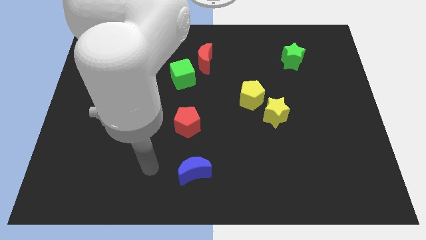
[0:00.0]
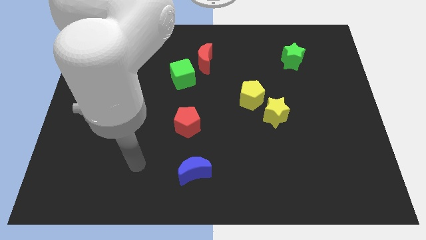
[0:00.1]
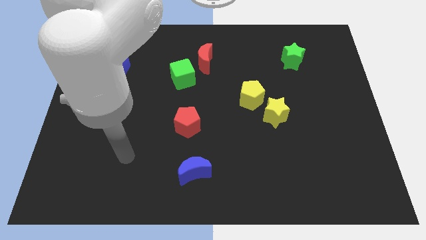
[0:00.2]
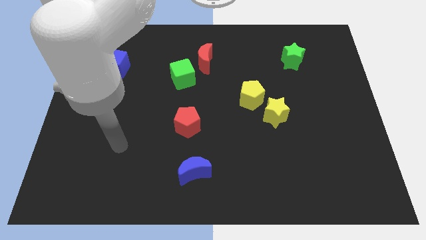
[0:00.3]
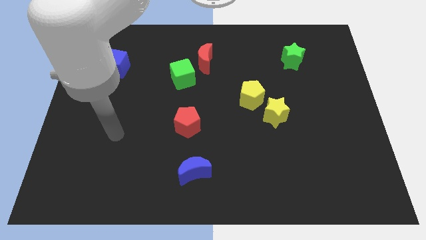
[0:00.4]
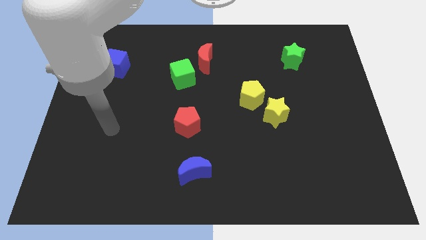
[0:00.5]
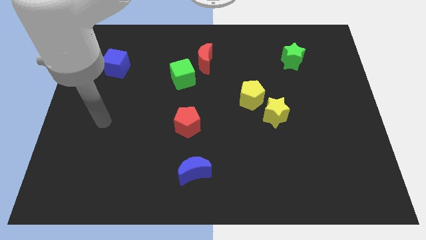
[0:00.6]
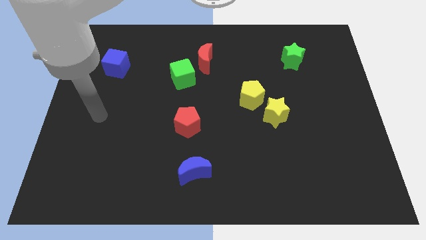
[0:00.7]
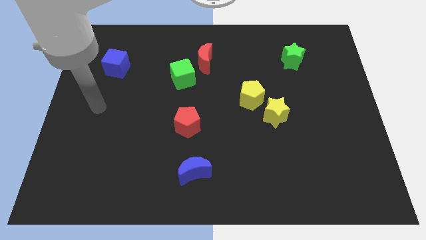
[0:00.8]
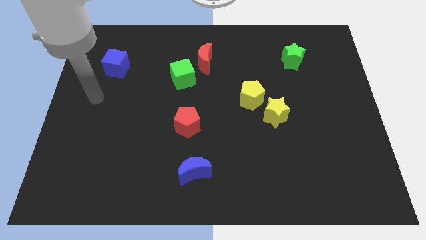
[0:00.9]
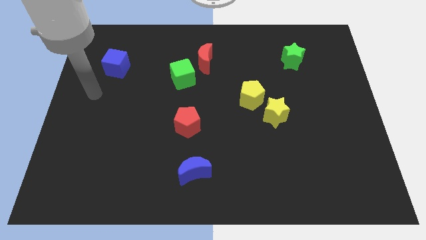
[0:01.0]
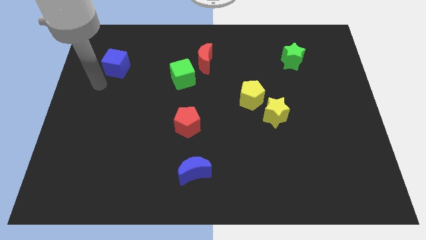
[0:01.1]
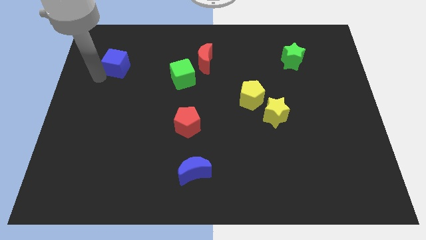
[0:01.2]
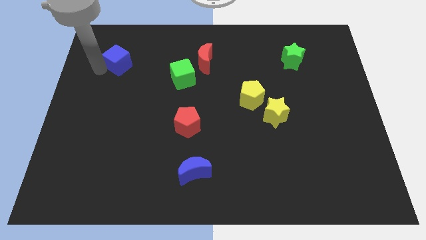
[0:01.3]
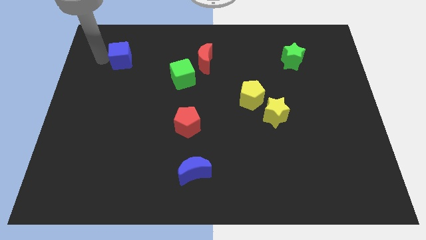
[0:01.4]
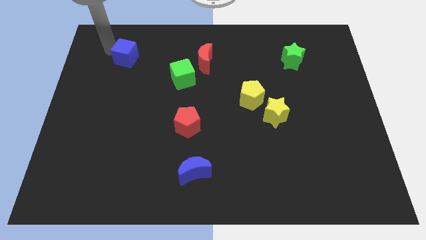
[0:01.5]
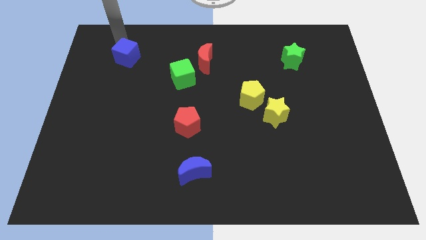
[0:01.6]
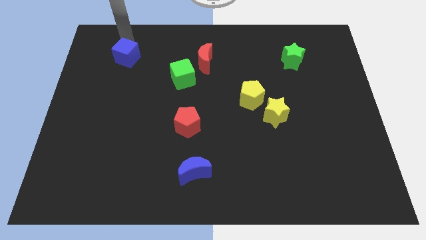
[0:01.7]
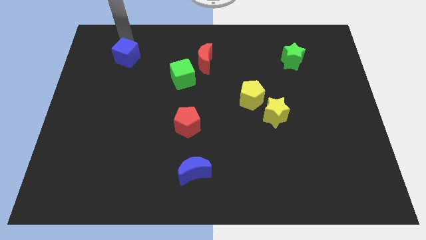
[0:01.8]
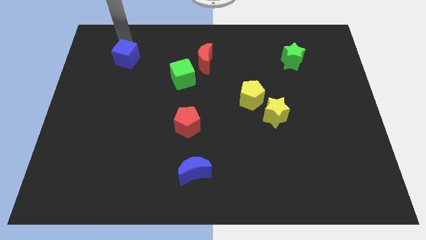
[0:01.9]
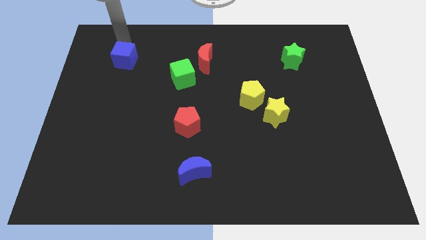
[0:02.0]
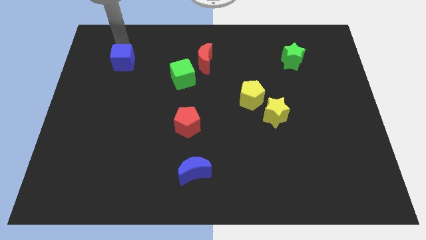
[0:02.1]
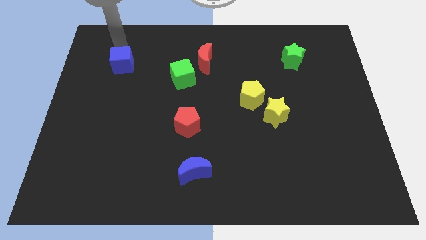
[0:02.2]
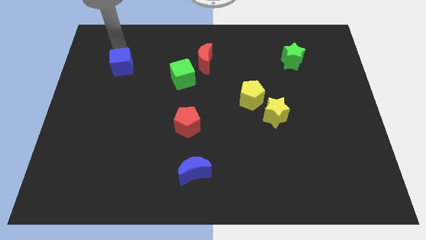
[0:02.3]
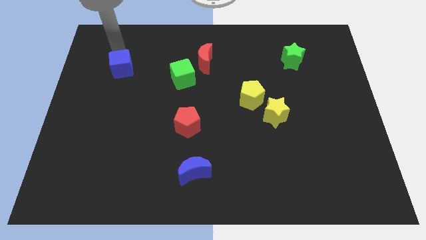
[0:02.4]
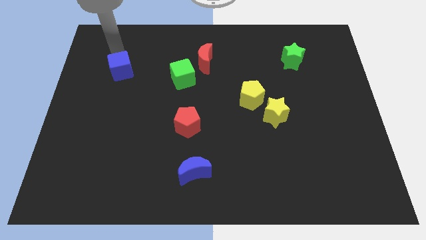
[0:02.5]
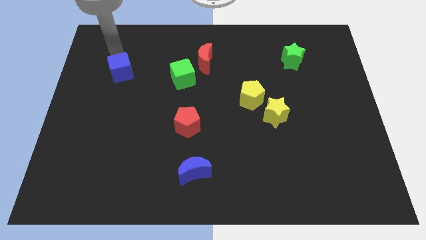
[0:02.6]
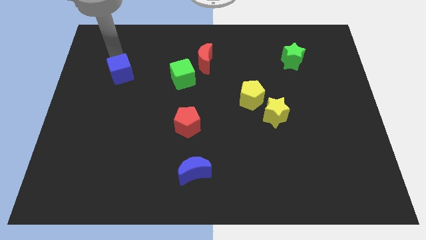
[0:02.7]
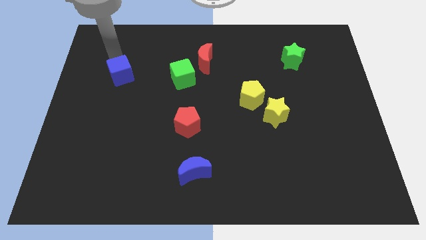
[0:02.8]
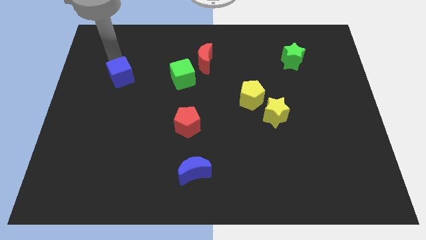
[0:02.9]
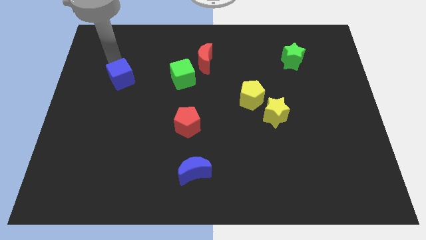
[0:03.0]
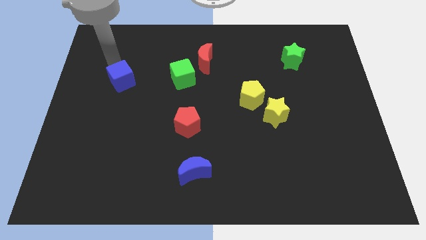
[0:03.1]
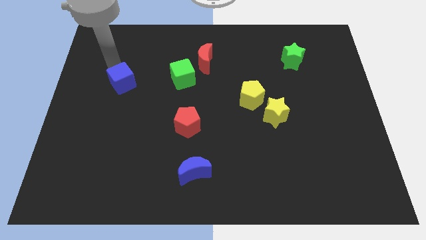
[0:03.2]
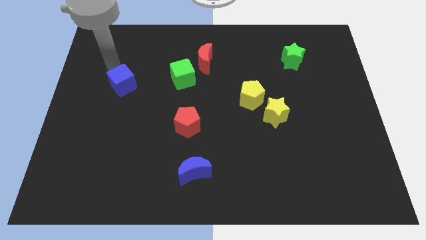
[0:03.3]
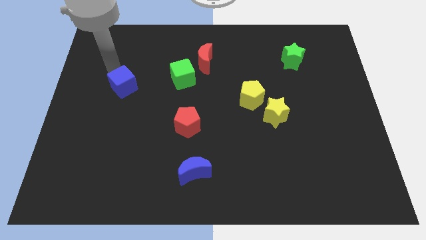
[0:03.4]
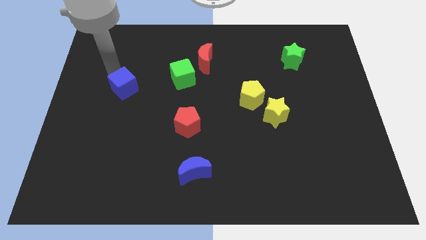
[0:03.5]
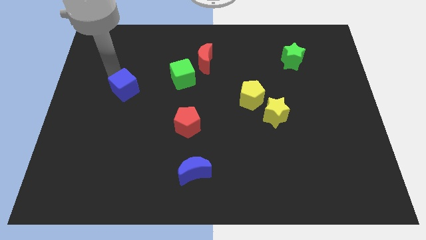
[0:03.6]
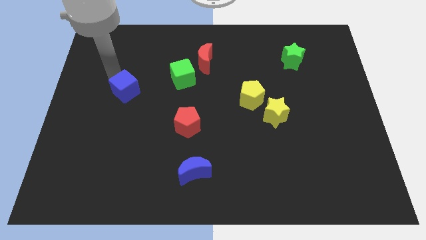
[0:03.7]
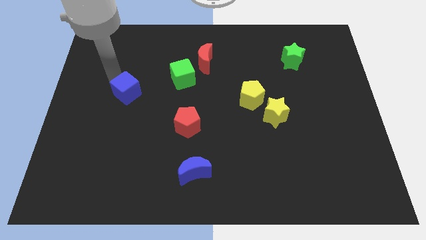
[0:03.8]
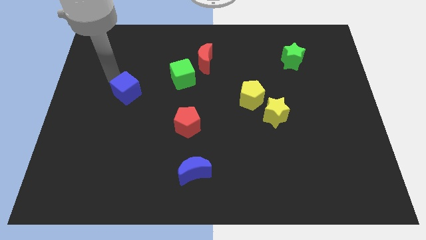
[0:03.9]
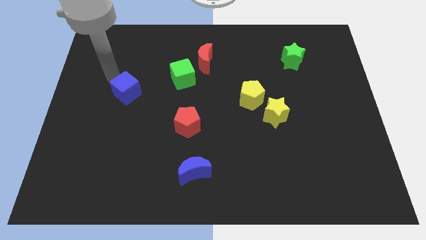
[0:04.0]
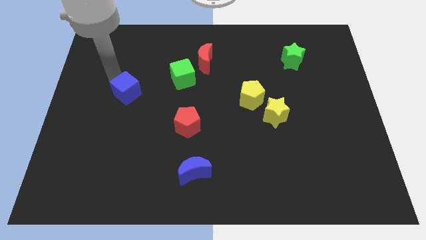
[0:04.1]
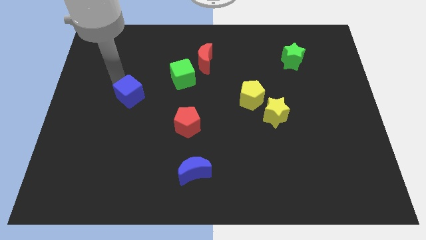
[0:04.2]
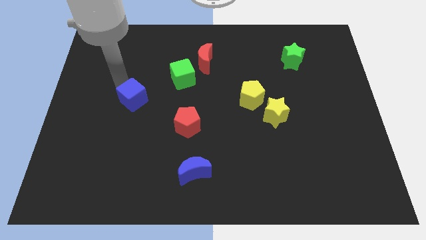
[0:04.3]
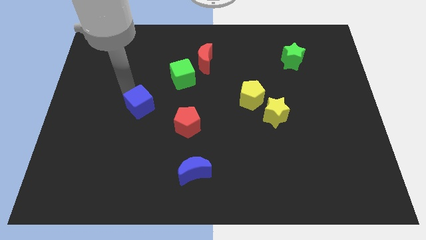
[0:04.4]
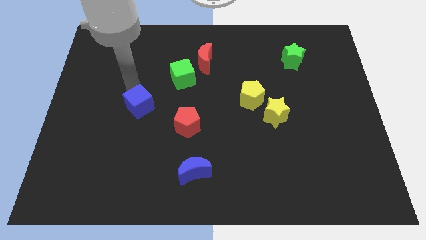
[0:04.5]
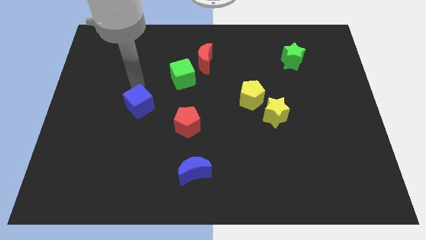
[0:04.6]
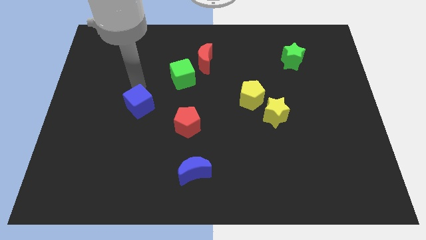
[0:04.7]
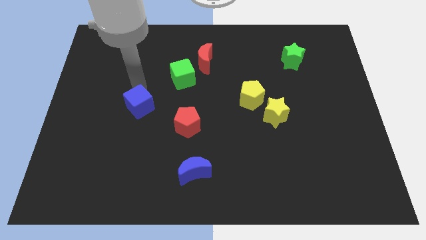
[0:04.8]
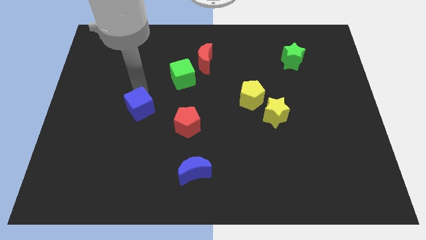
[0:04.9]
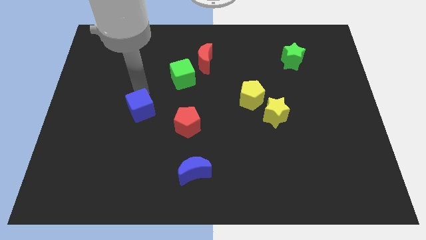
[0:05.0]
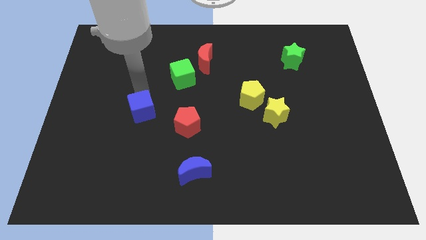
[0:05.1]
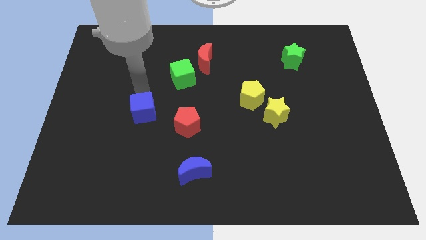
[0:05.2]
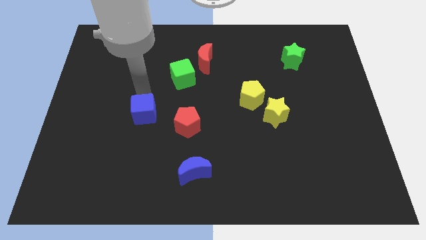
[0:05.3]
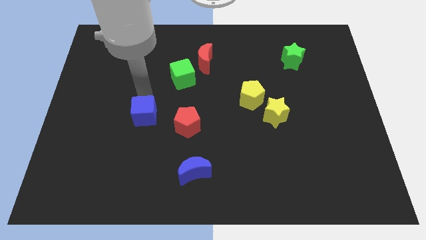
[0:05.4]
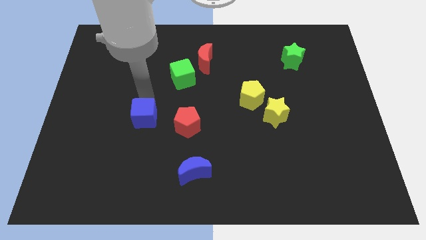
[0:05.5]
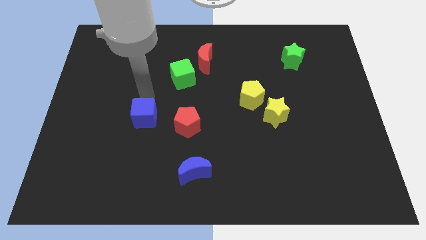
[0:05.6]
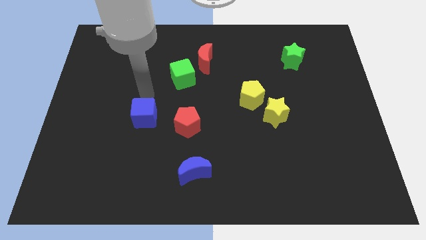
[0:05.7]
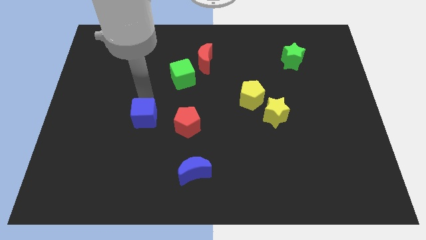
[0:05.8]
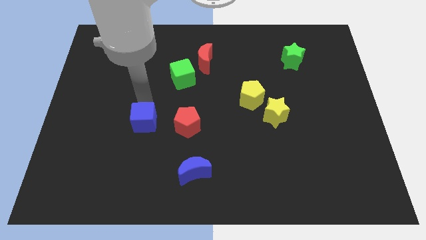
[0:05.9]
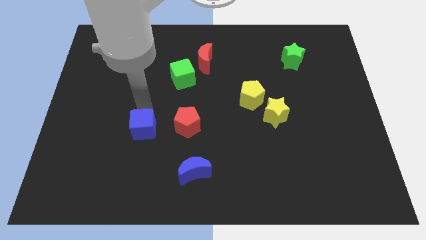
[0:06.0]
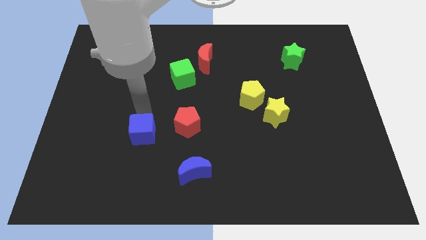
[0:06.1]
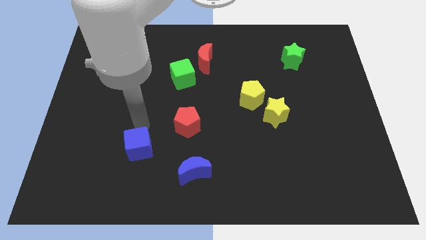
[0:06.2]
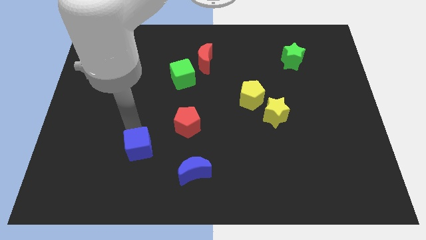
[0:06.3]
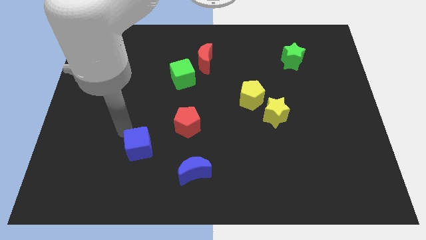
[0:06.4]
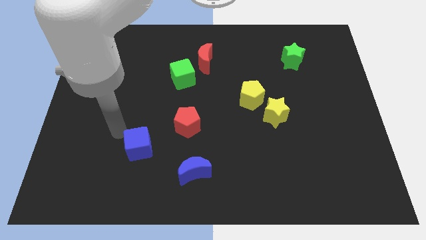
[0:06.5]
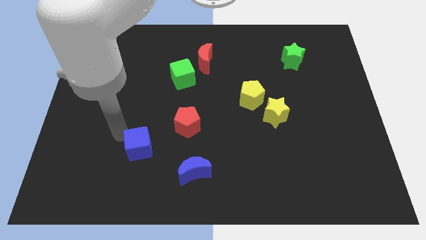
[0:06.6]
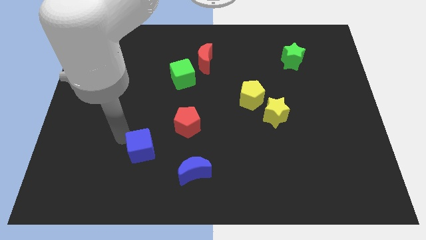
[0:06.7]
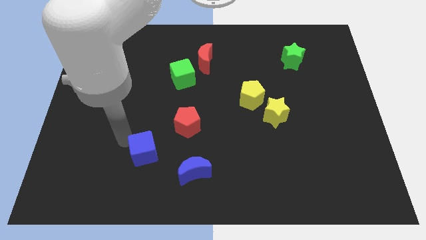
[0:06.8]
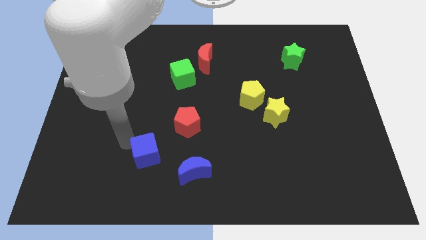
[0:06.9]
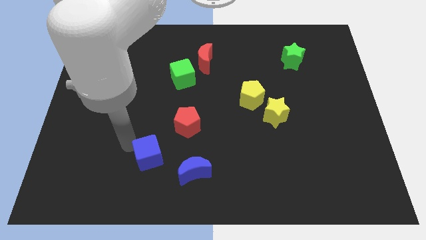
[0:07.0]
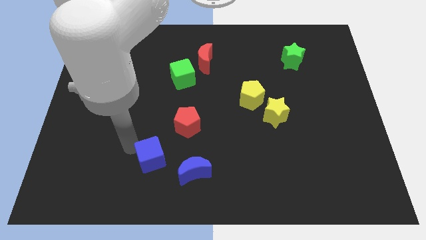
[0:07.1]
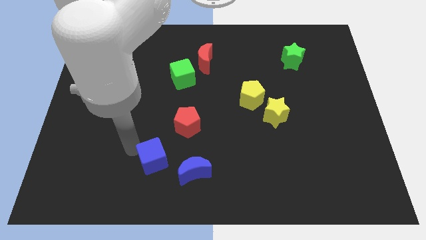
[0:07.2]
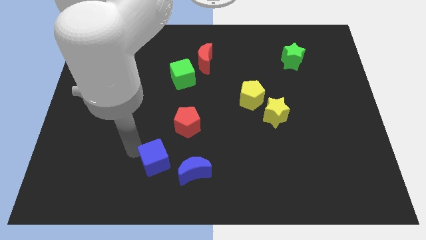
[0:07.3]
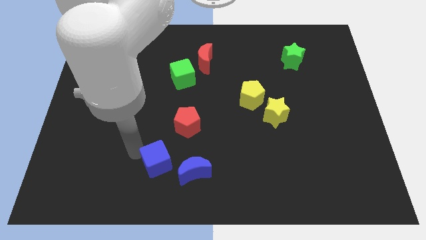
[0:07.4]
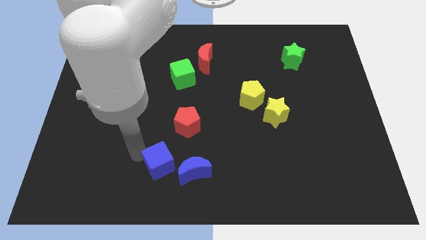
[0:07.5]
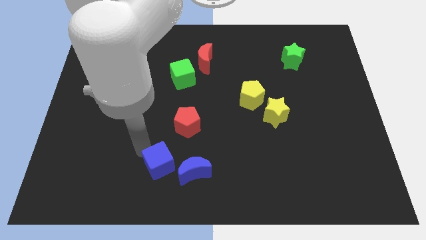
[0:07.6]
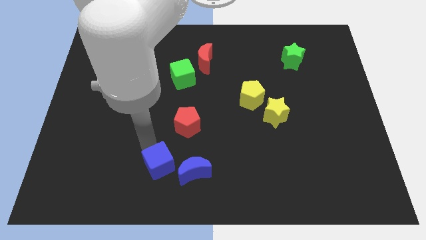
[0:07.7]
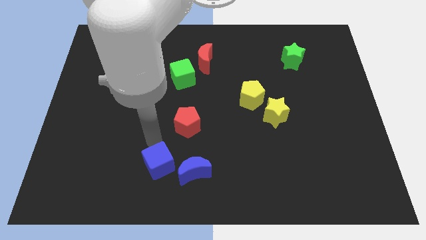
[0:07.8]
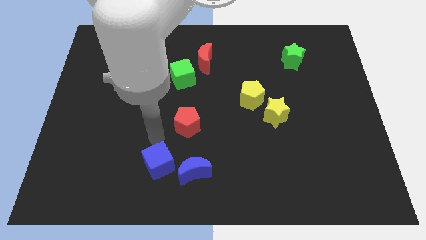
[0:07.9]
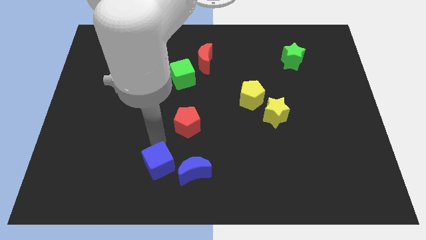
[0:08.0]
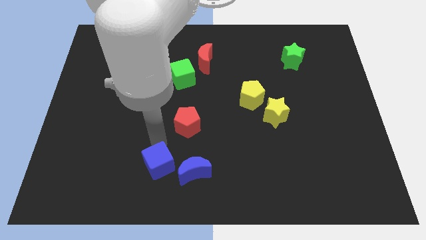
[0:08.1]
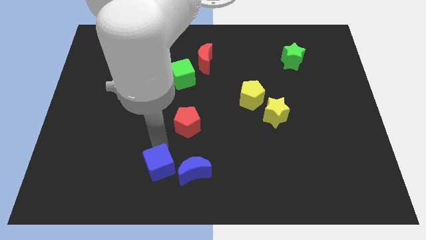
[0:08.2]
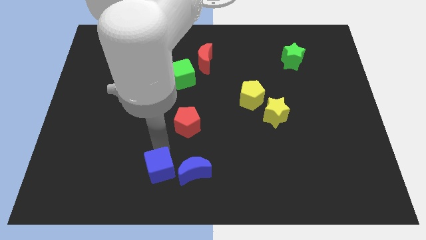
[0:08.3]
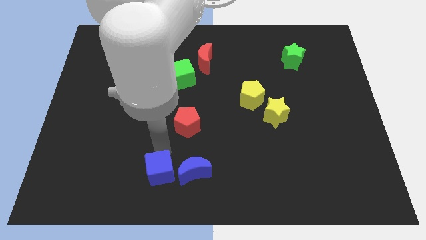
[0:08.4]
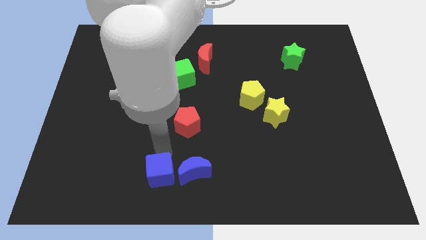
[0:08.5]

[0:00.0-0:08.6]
push the blue cube to the bottom
